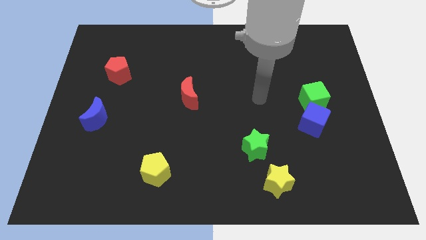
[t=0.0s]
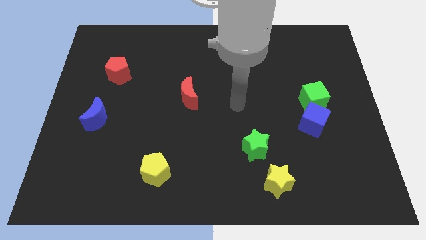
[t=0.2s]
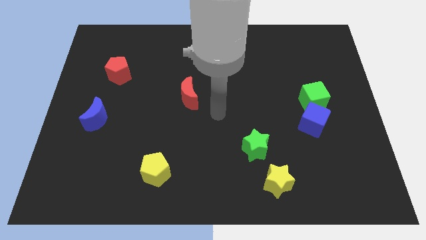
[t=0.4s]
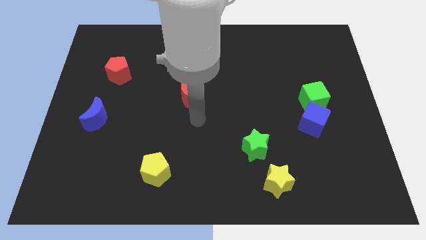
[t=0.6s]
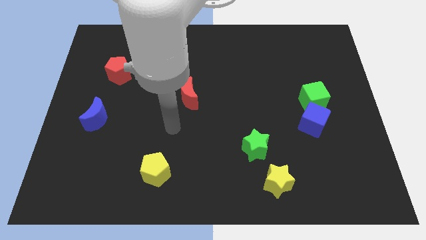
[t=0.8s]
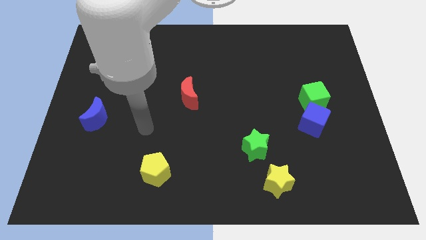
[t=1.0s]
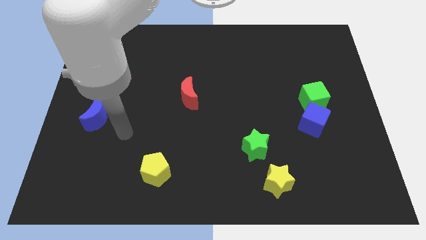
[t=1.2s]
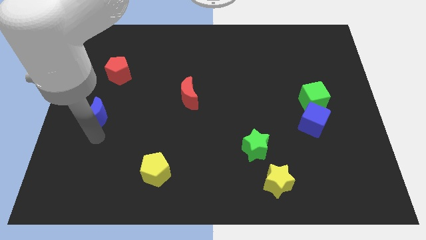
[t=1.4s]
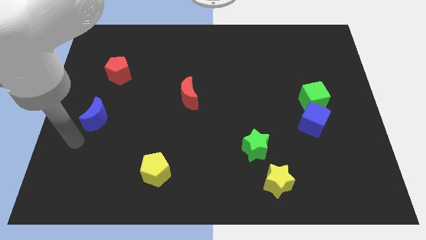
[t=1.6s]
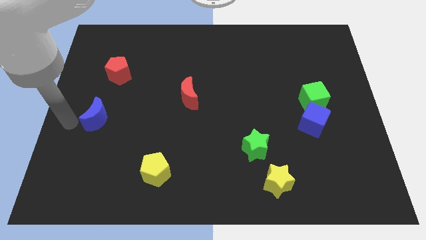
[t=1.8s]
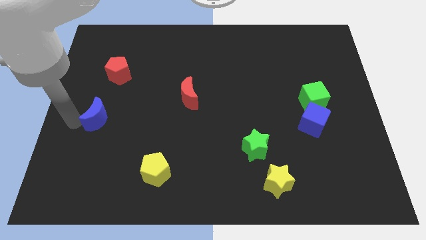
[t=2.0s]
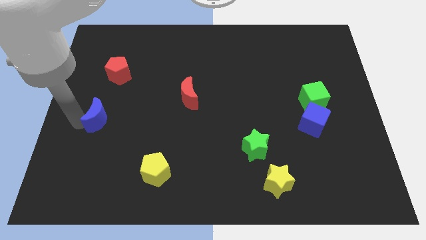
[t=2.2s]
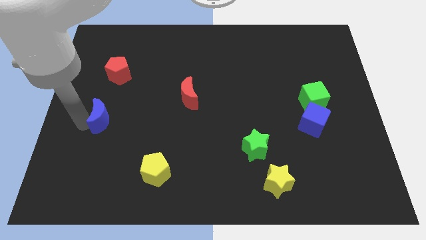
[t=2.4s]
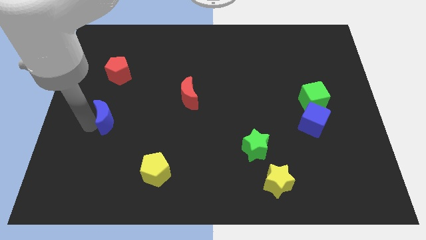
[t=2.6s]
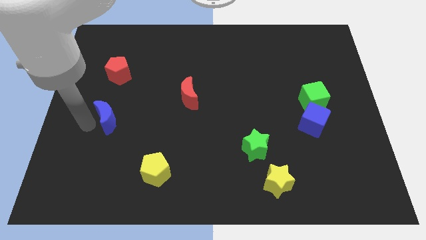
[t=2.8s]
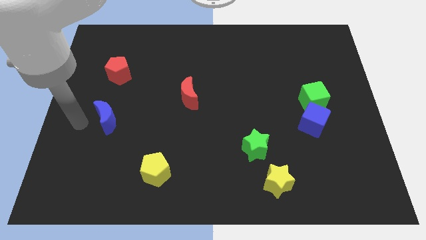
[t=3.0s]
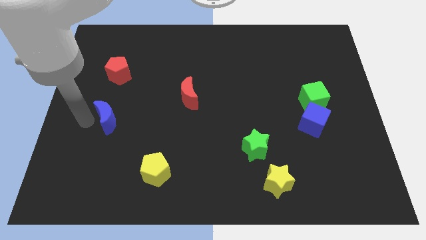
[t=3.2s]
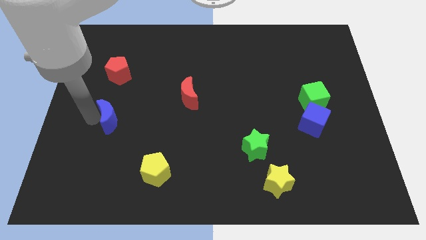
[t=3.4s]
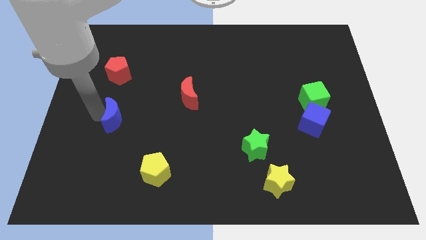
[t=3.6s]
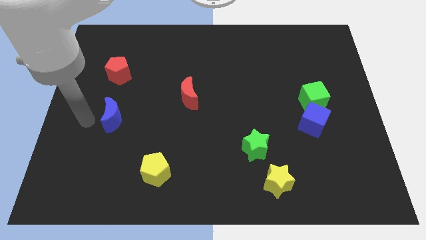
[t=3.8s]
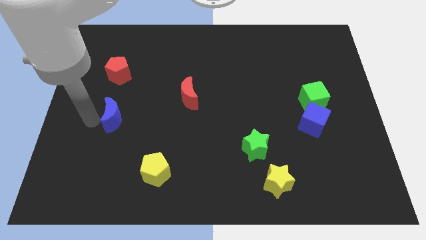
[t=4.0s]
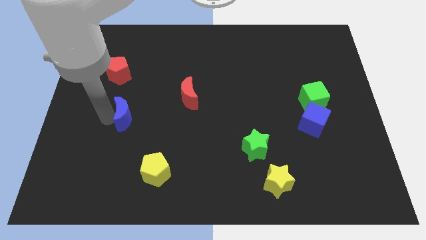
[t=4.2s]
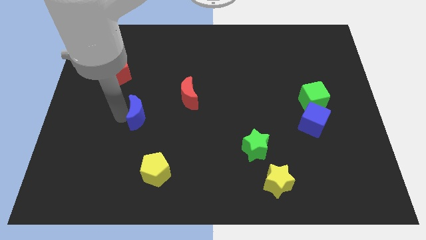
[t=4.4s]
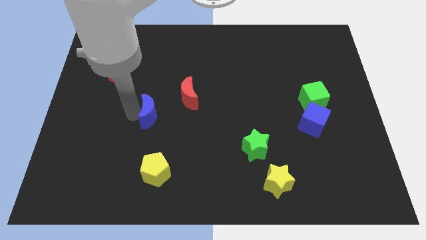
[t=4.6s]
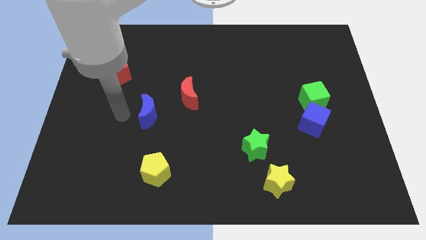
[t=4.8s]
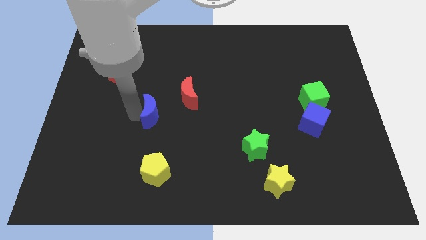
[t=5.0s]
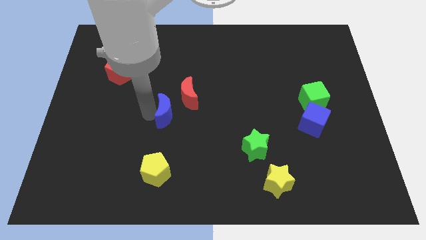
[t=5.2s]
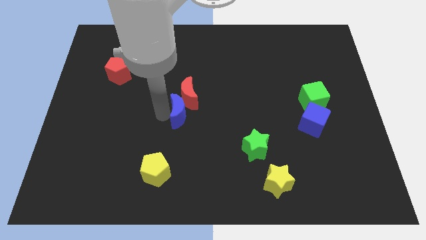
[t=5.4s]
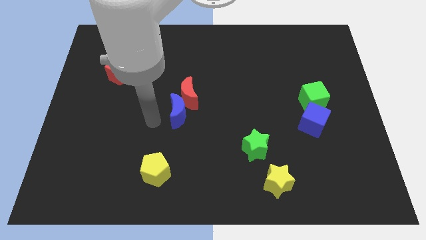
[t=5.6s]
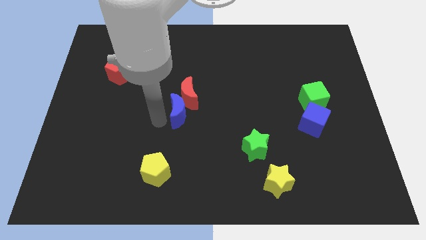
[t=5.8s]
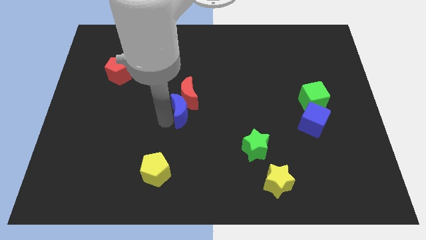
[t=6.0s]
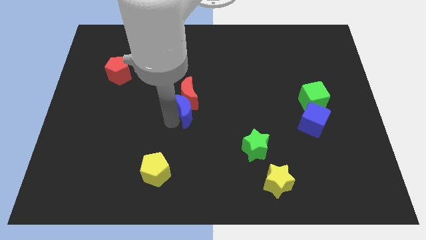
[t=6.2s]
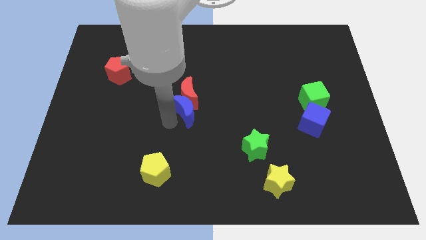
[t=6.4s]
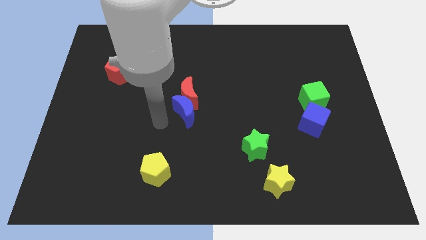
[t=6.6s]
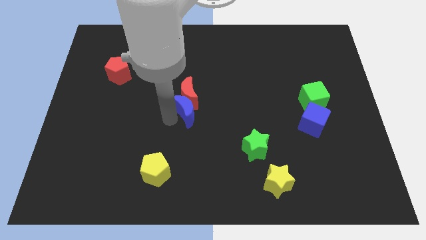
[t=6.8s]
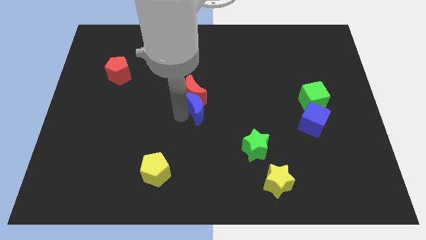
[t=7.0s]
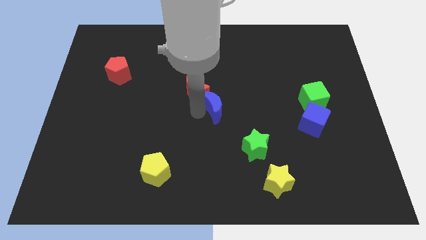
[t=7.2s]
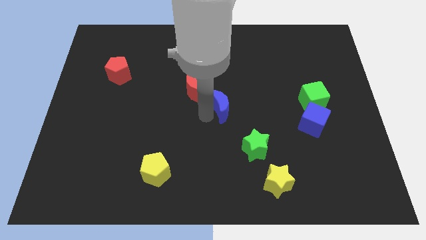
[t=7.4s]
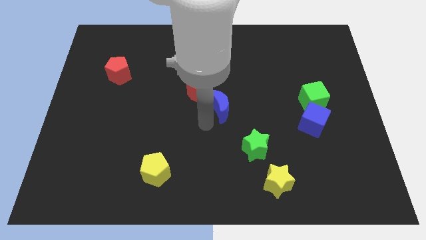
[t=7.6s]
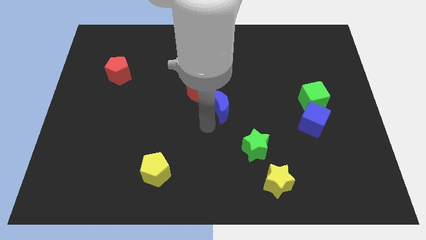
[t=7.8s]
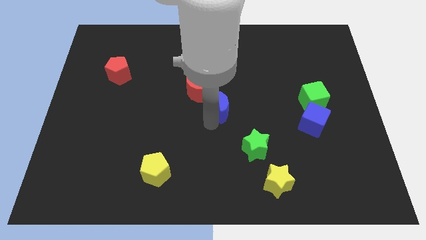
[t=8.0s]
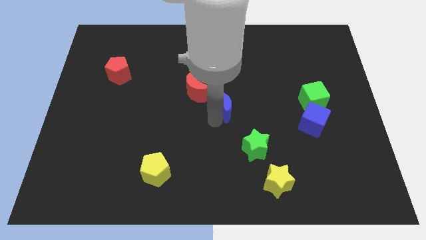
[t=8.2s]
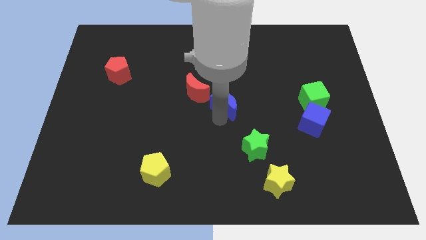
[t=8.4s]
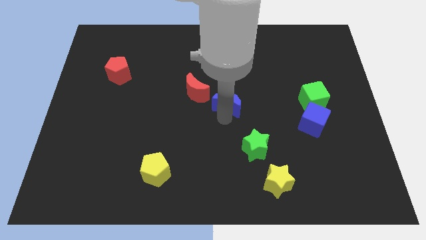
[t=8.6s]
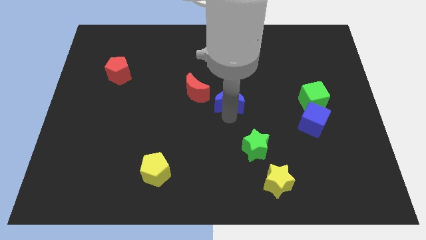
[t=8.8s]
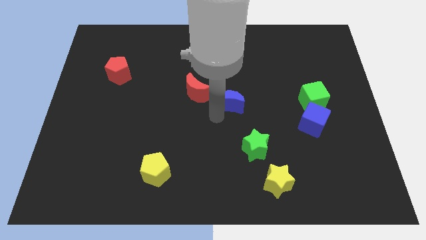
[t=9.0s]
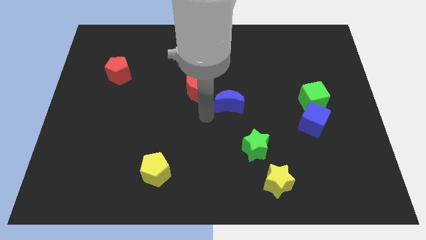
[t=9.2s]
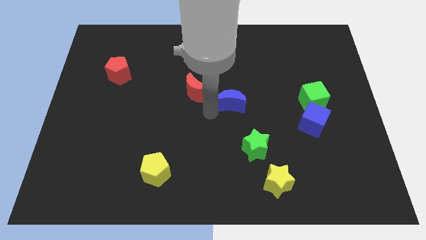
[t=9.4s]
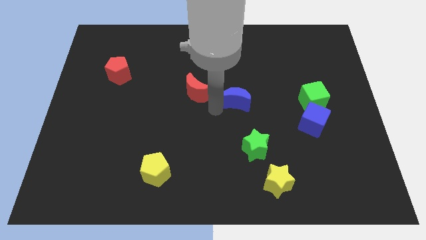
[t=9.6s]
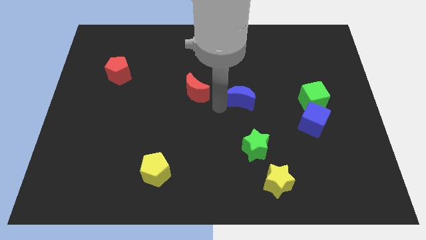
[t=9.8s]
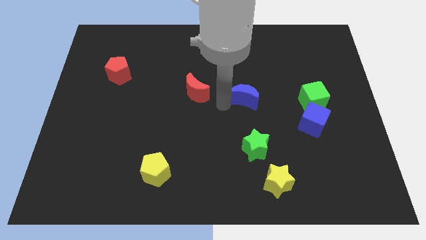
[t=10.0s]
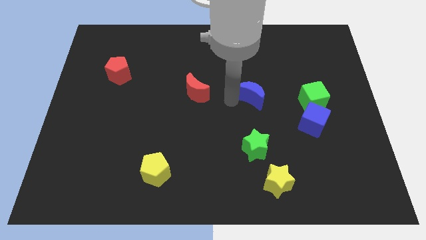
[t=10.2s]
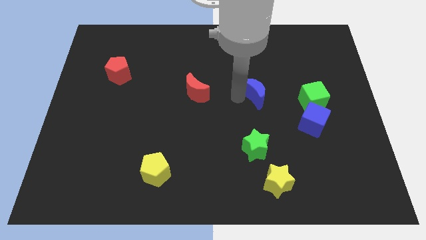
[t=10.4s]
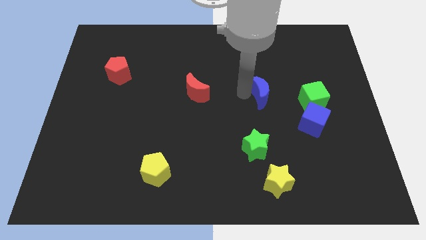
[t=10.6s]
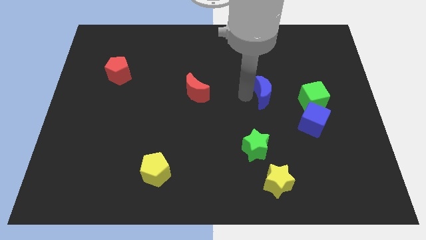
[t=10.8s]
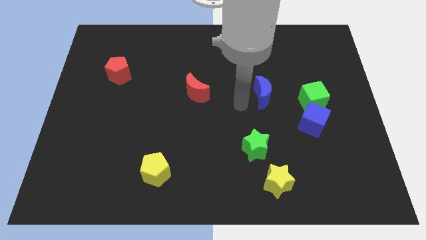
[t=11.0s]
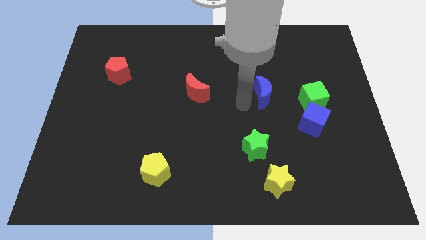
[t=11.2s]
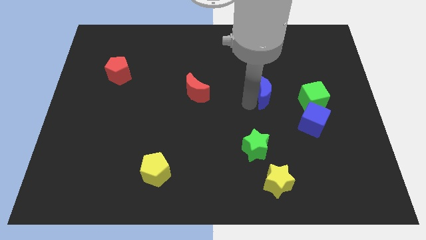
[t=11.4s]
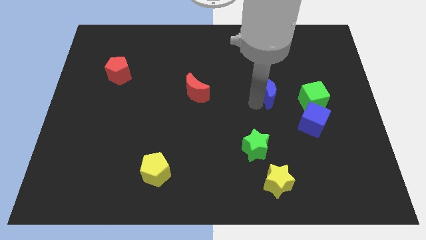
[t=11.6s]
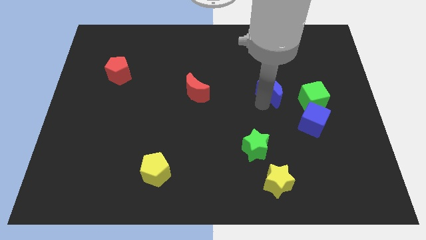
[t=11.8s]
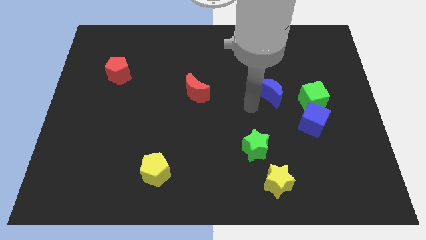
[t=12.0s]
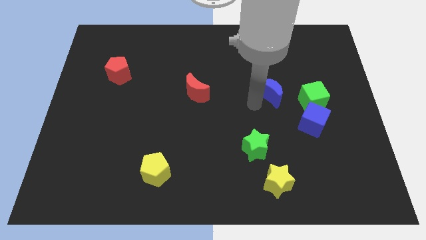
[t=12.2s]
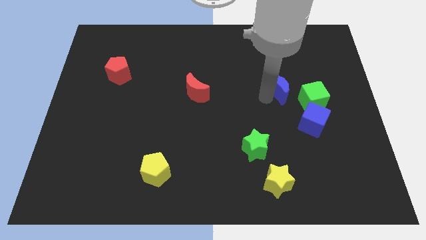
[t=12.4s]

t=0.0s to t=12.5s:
put the blue moon diagonally up and to the left of the green cube

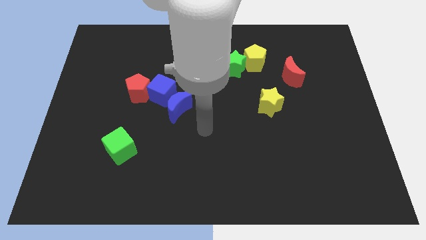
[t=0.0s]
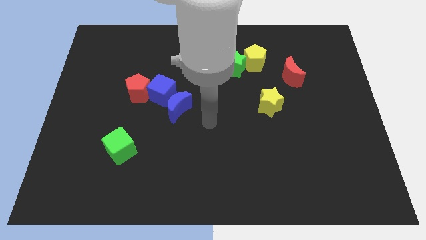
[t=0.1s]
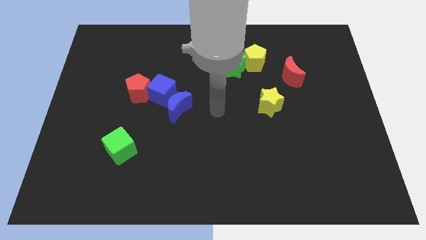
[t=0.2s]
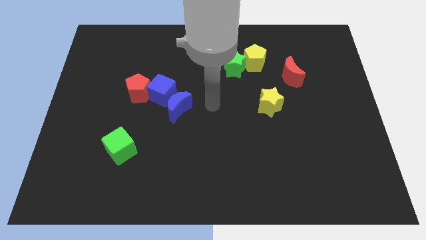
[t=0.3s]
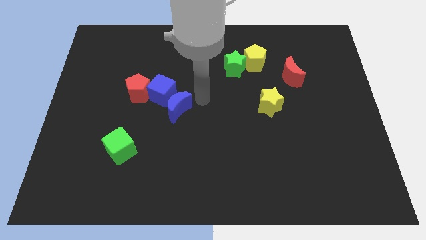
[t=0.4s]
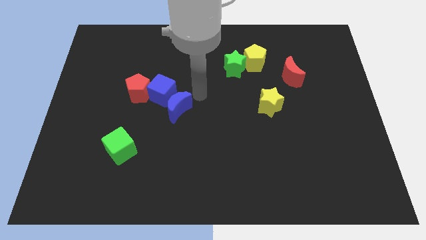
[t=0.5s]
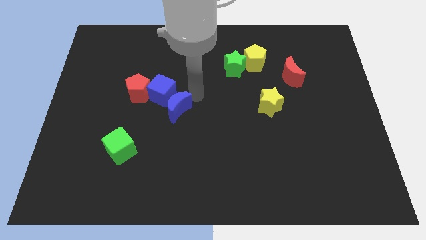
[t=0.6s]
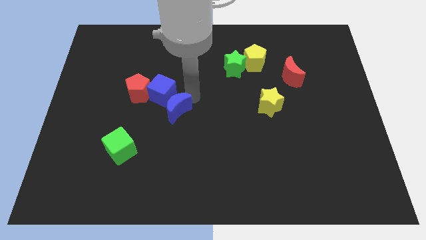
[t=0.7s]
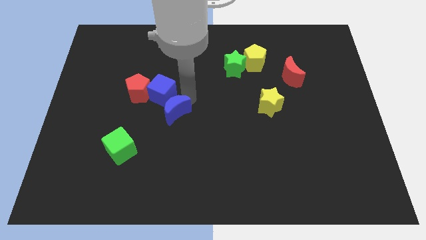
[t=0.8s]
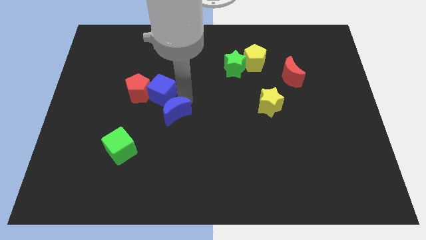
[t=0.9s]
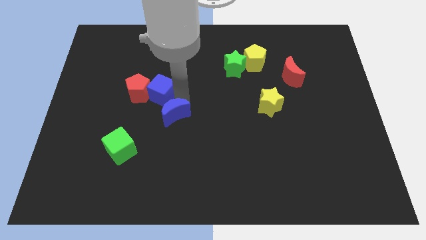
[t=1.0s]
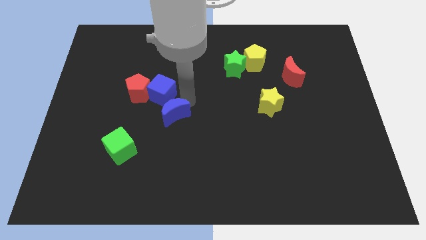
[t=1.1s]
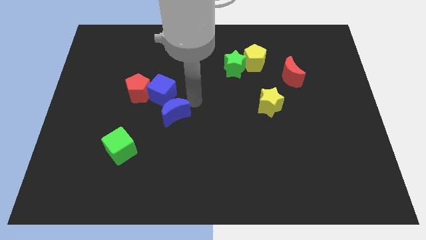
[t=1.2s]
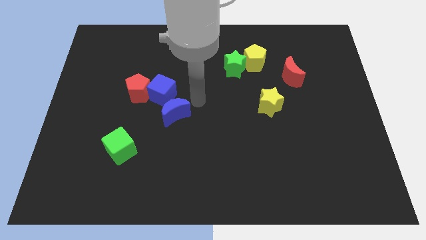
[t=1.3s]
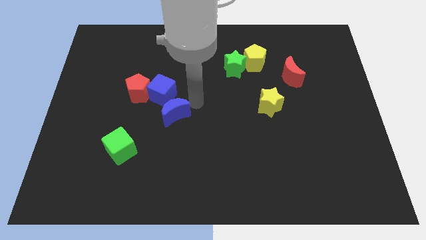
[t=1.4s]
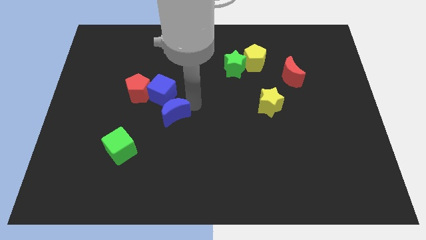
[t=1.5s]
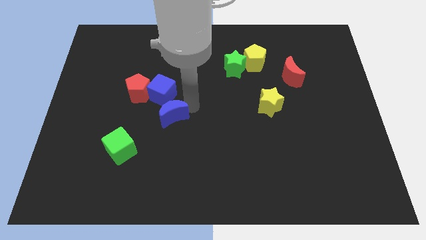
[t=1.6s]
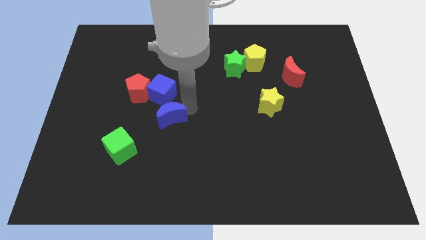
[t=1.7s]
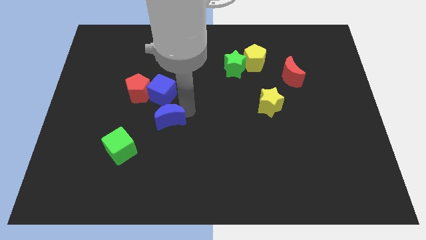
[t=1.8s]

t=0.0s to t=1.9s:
push the blue moon to the top right side of the green cube
